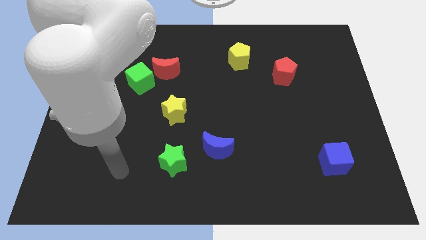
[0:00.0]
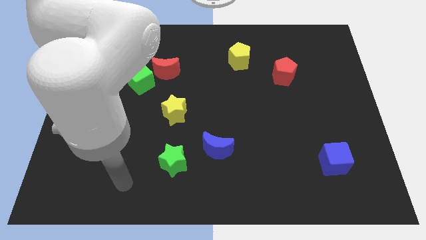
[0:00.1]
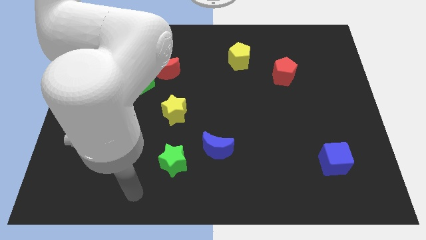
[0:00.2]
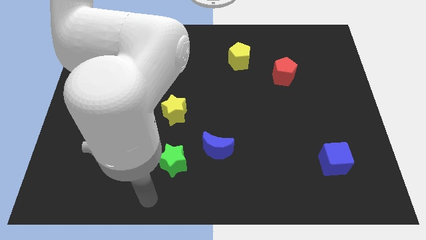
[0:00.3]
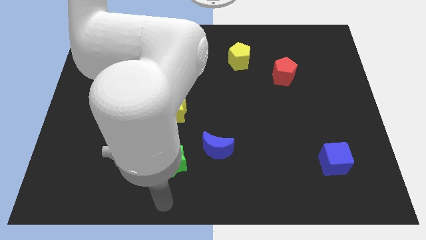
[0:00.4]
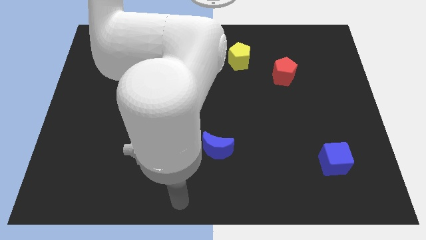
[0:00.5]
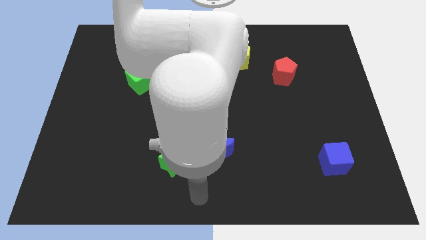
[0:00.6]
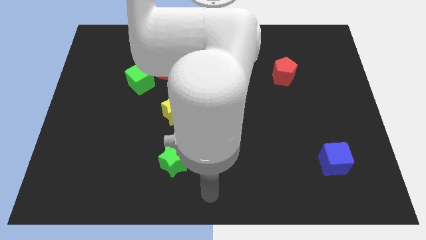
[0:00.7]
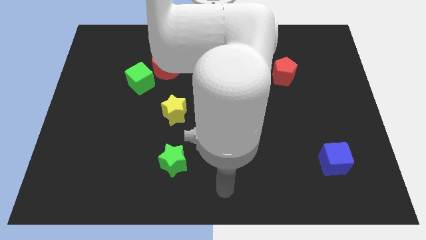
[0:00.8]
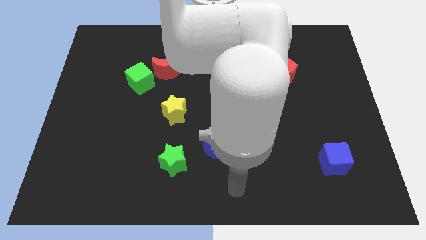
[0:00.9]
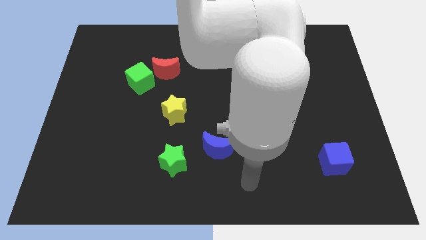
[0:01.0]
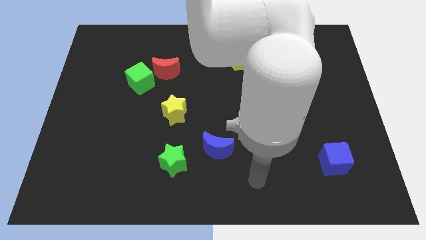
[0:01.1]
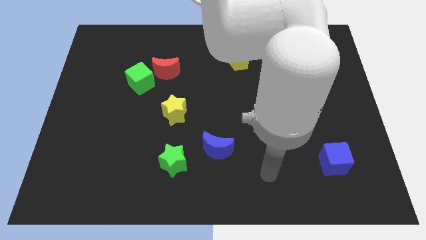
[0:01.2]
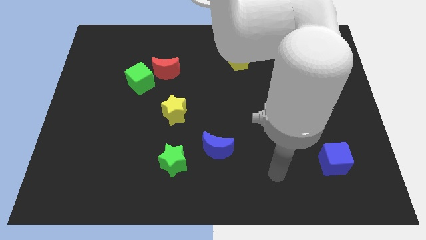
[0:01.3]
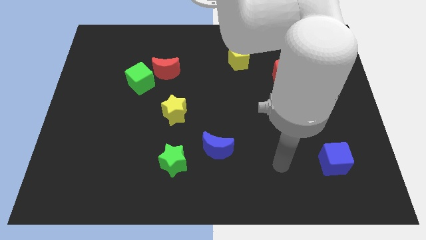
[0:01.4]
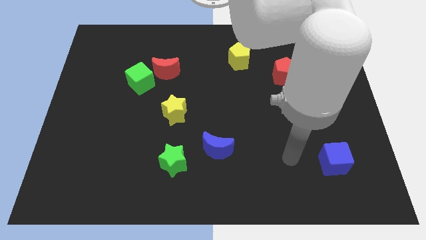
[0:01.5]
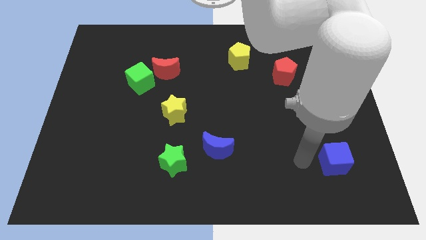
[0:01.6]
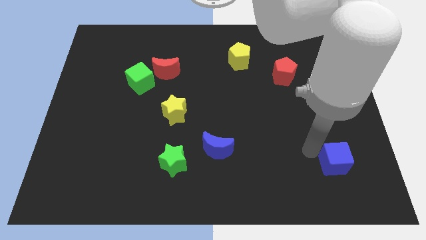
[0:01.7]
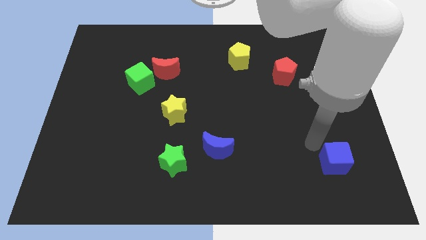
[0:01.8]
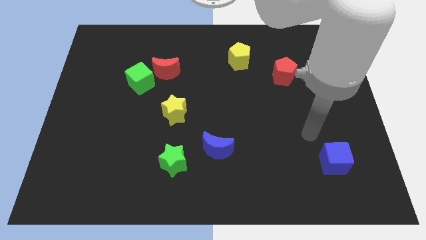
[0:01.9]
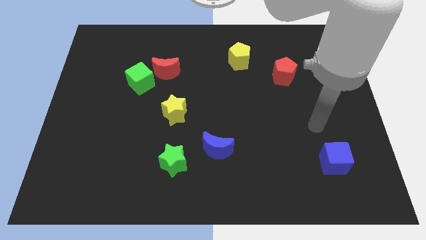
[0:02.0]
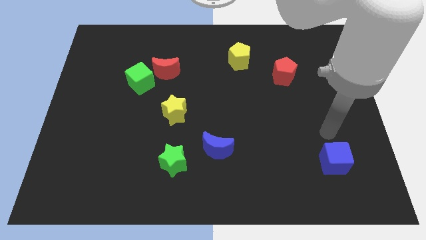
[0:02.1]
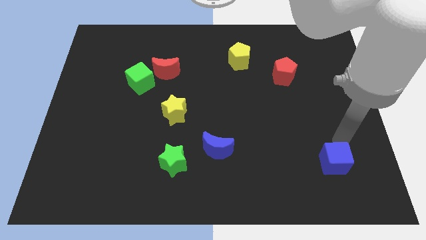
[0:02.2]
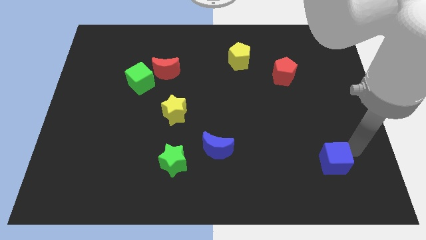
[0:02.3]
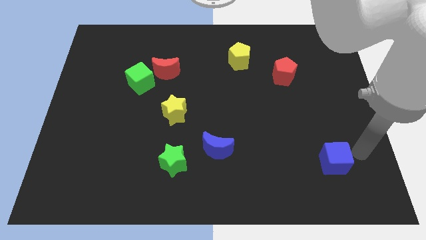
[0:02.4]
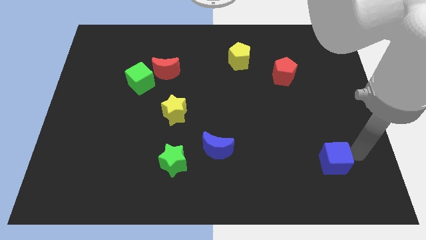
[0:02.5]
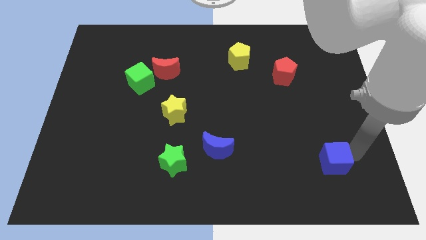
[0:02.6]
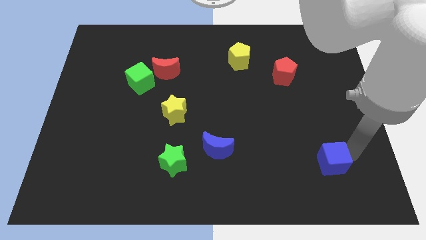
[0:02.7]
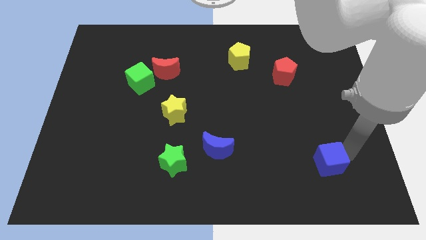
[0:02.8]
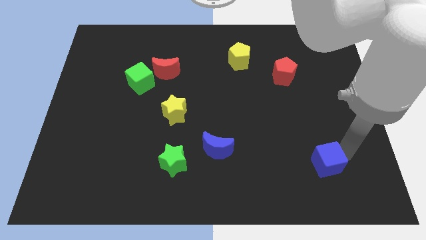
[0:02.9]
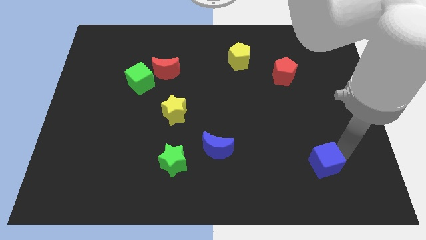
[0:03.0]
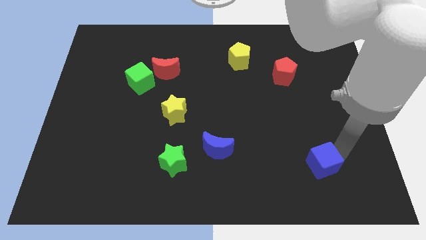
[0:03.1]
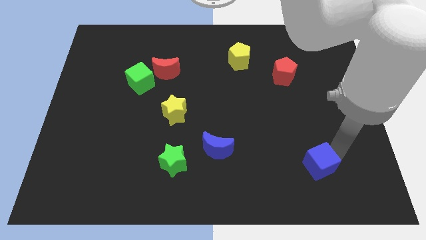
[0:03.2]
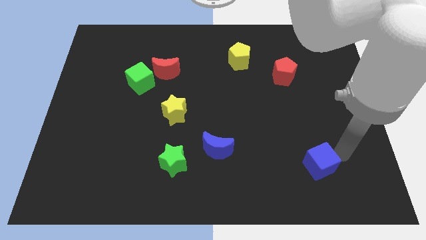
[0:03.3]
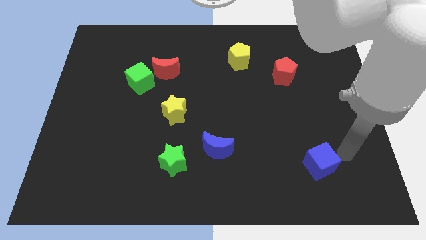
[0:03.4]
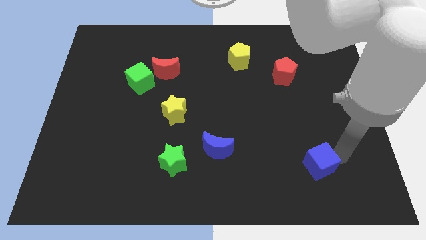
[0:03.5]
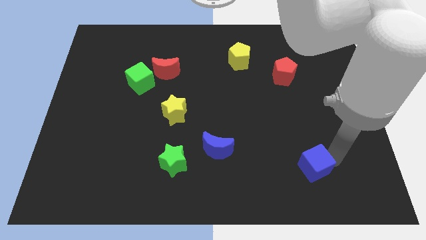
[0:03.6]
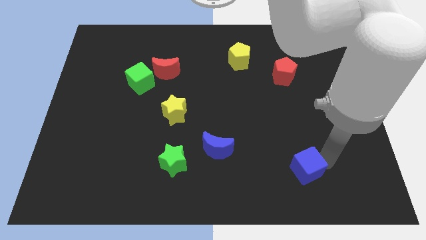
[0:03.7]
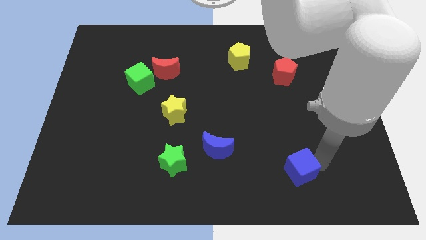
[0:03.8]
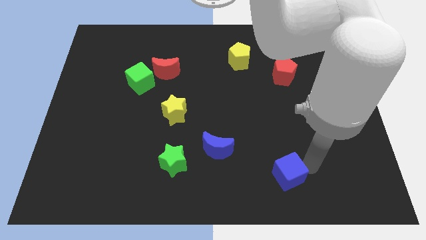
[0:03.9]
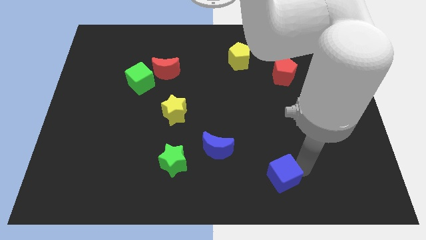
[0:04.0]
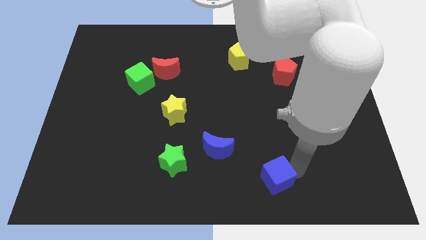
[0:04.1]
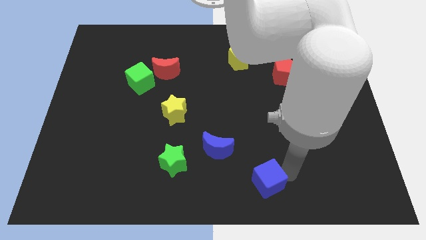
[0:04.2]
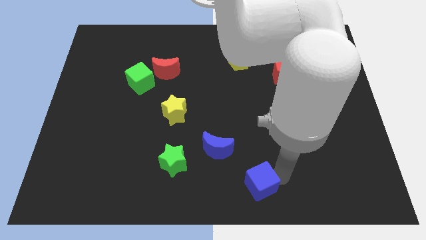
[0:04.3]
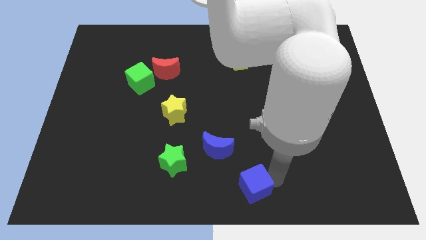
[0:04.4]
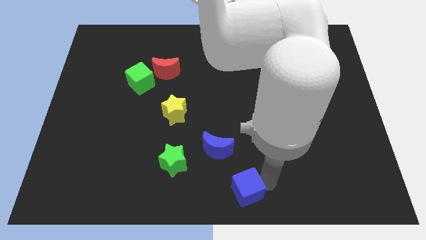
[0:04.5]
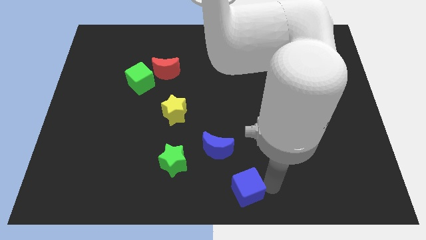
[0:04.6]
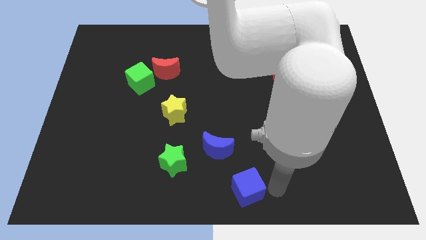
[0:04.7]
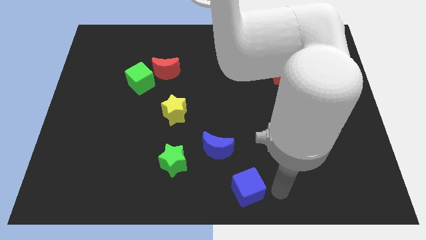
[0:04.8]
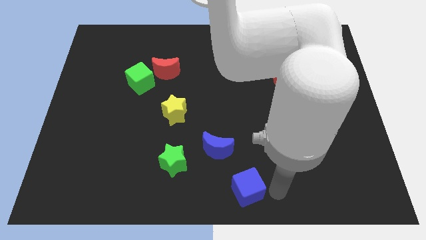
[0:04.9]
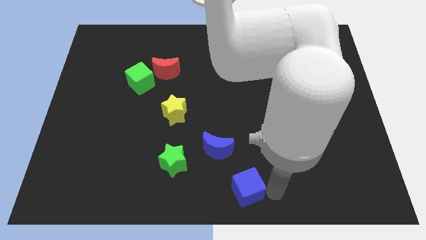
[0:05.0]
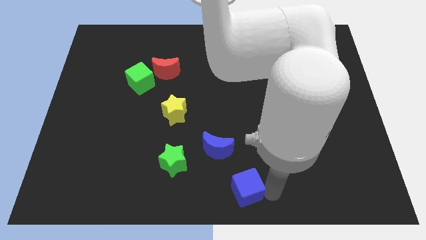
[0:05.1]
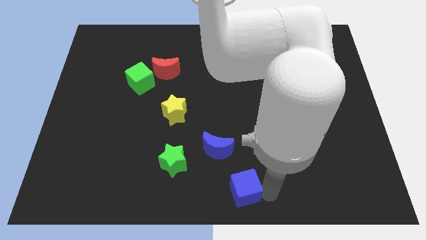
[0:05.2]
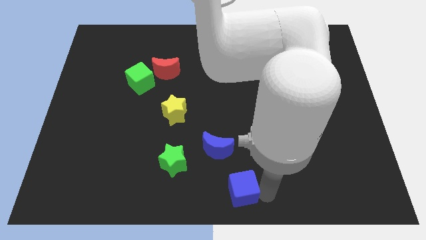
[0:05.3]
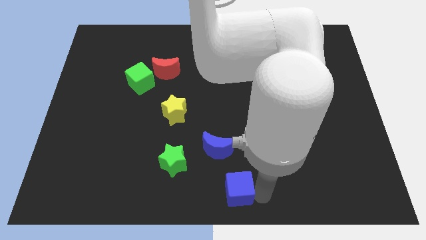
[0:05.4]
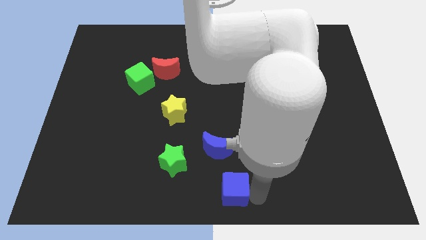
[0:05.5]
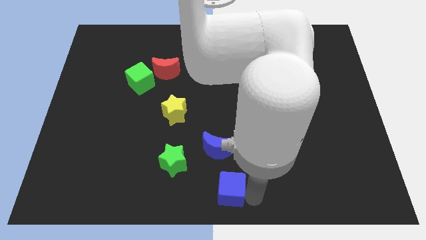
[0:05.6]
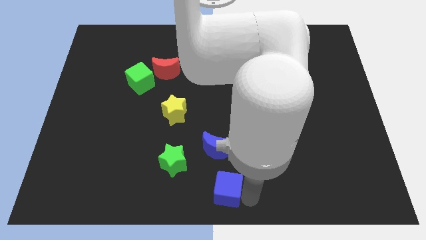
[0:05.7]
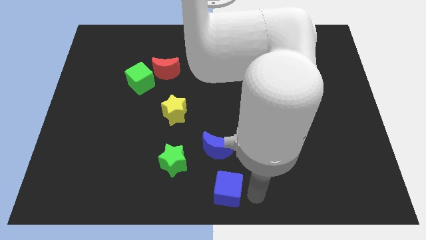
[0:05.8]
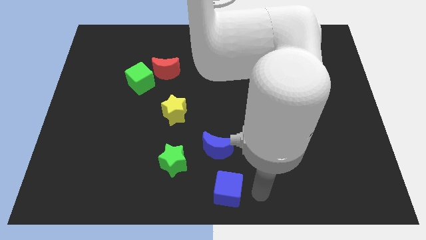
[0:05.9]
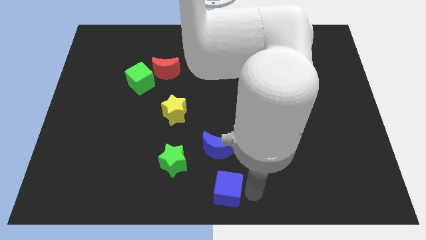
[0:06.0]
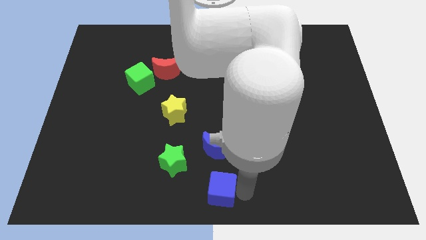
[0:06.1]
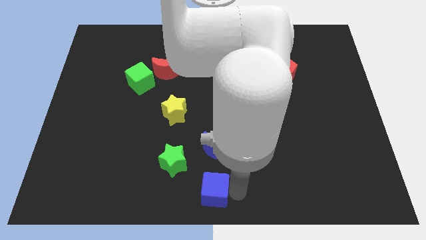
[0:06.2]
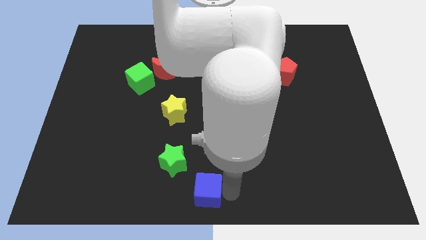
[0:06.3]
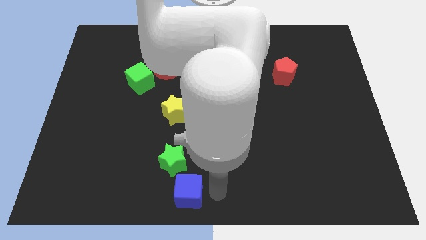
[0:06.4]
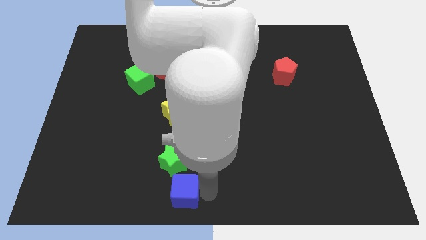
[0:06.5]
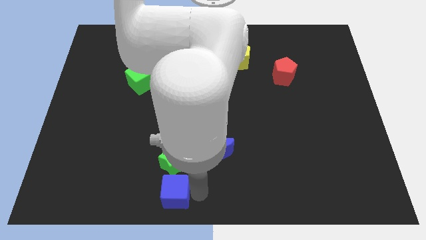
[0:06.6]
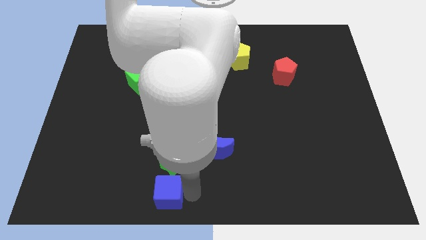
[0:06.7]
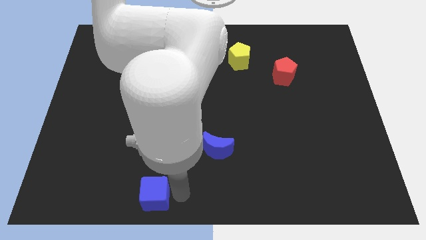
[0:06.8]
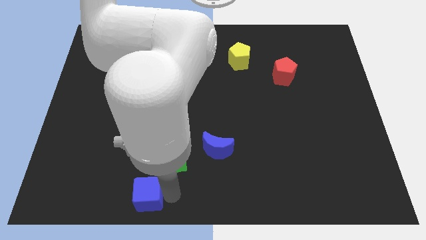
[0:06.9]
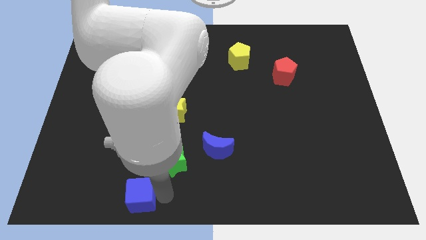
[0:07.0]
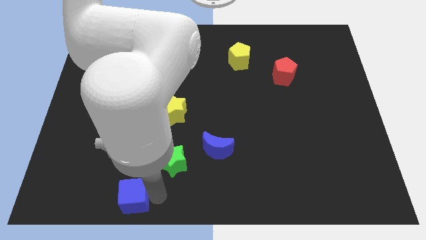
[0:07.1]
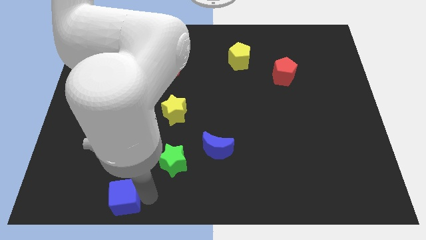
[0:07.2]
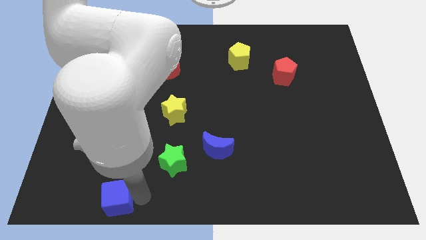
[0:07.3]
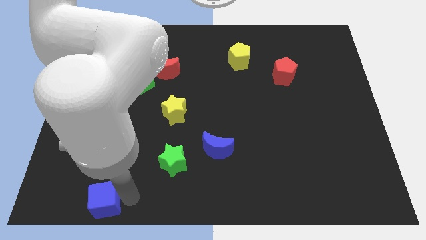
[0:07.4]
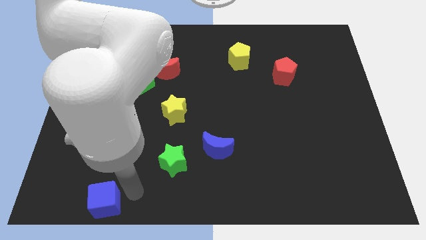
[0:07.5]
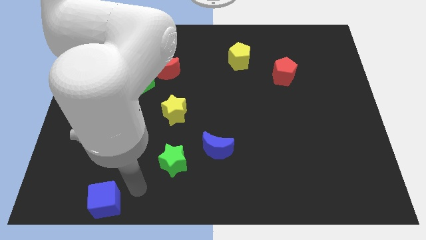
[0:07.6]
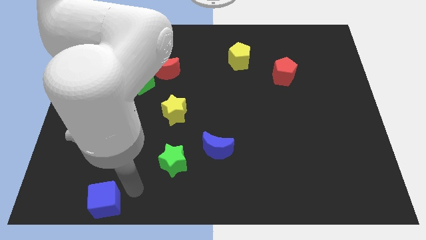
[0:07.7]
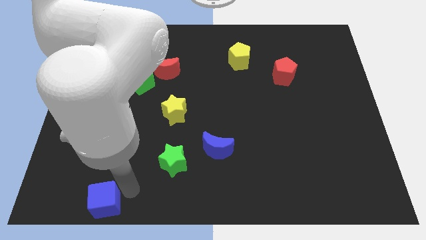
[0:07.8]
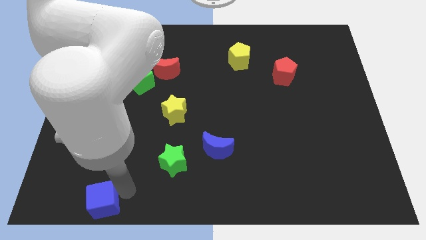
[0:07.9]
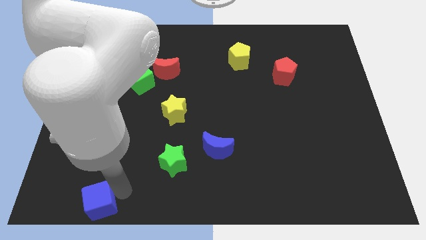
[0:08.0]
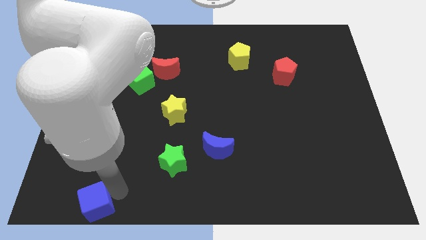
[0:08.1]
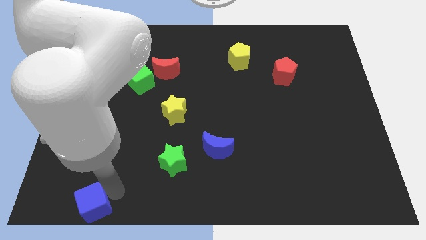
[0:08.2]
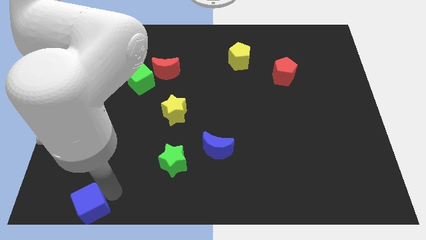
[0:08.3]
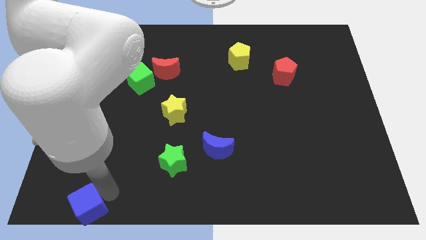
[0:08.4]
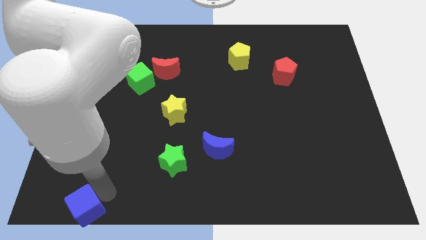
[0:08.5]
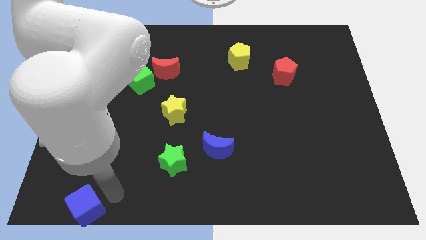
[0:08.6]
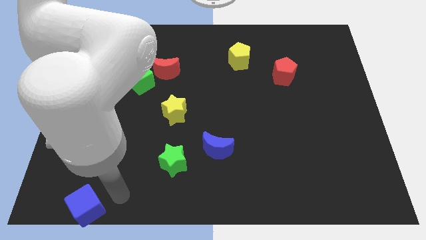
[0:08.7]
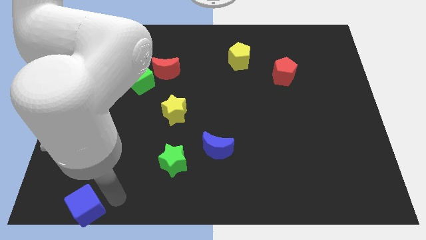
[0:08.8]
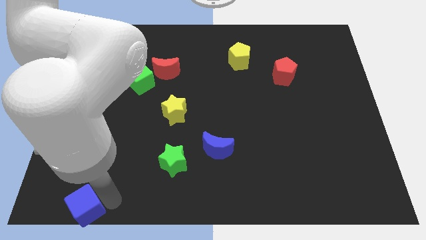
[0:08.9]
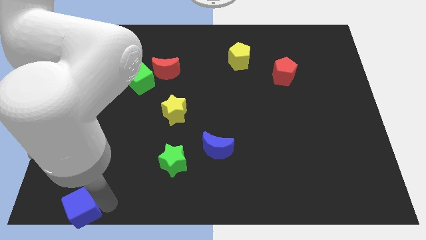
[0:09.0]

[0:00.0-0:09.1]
move the blue cube to the lower left corner
